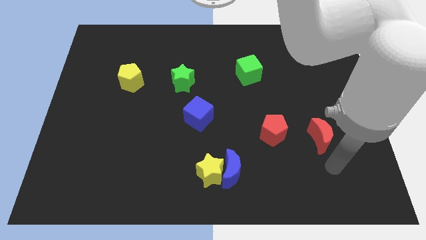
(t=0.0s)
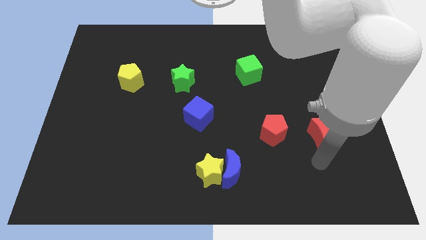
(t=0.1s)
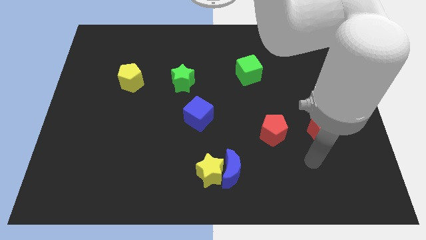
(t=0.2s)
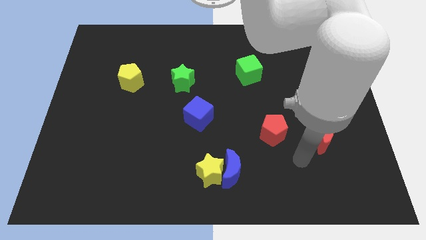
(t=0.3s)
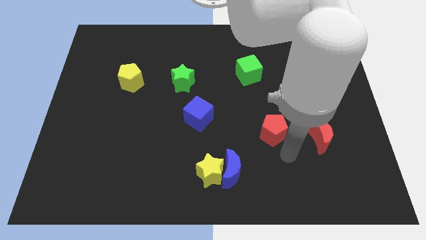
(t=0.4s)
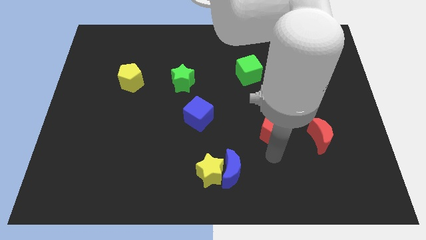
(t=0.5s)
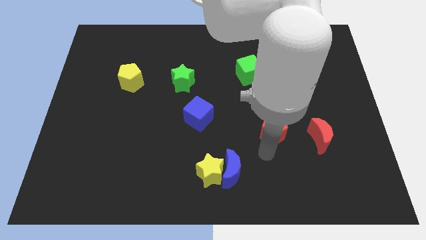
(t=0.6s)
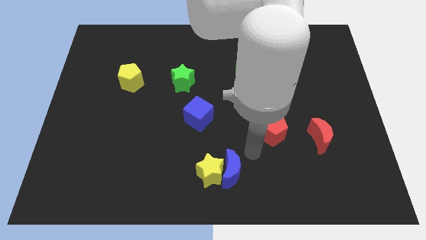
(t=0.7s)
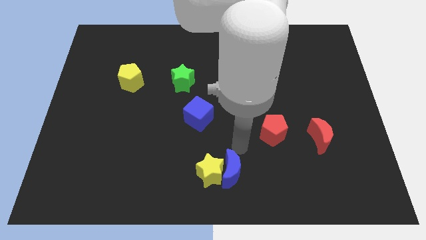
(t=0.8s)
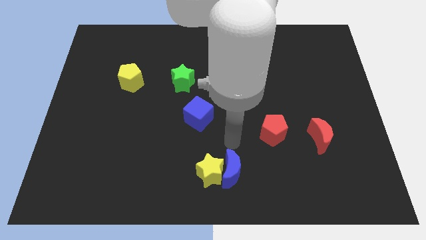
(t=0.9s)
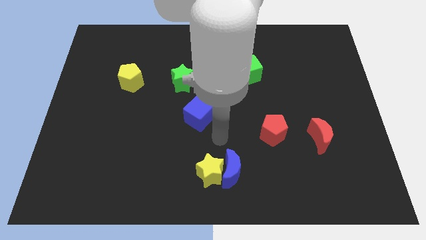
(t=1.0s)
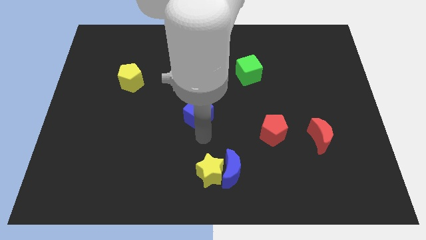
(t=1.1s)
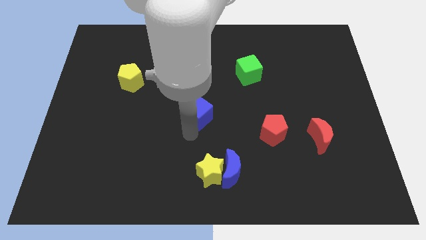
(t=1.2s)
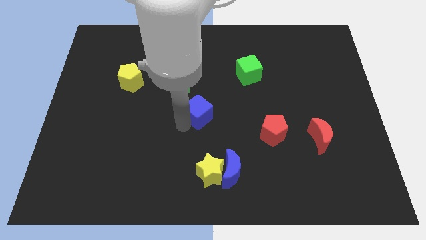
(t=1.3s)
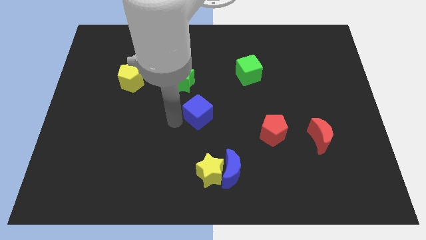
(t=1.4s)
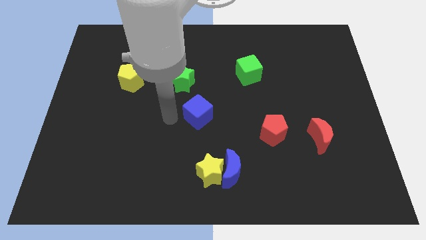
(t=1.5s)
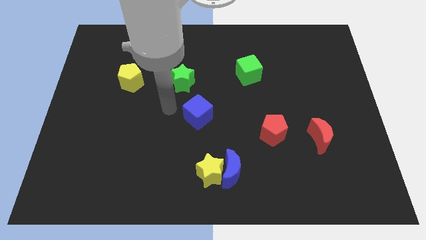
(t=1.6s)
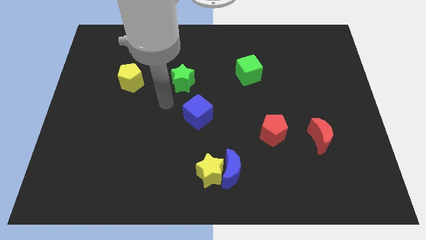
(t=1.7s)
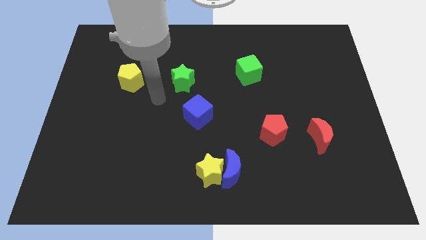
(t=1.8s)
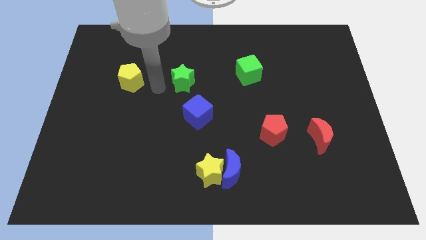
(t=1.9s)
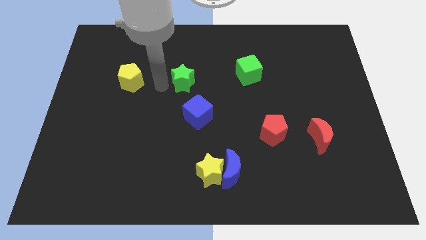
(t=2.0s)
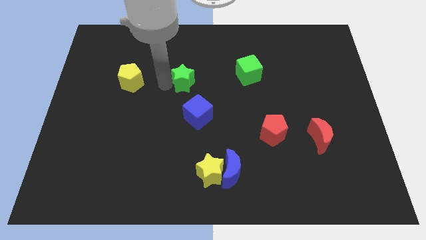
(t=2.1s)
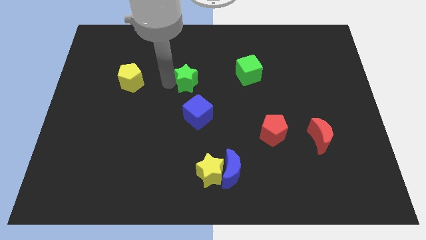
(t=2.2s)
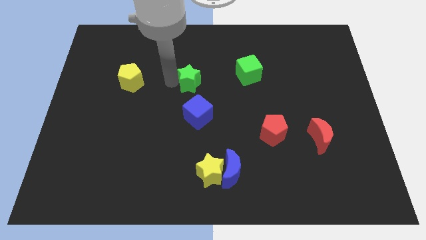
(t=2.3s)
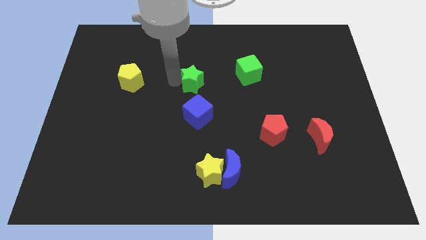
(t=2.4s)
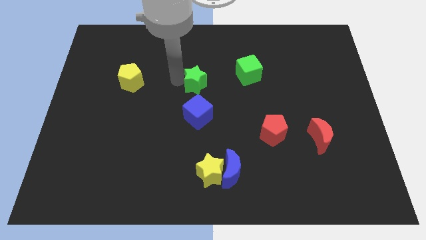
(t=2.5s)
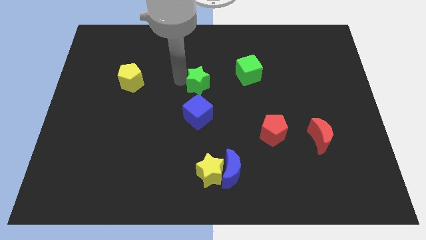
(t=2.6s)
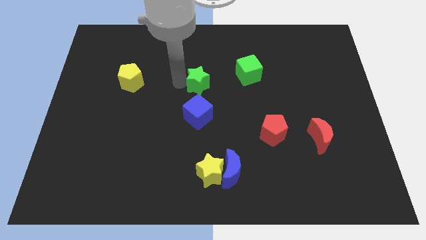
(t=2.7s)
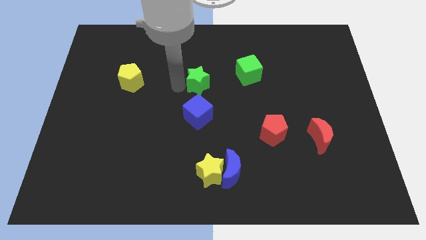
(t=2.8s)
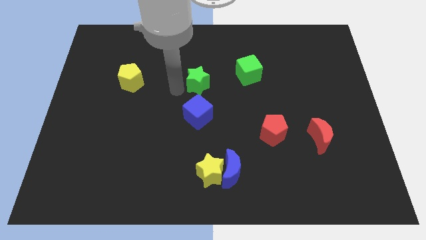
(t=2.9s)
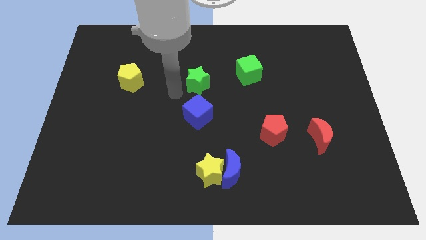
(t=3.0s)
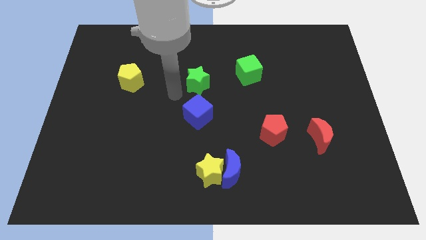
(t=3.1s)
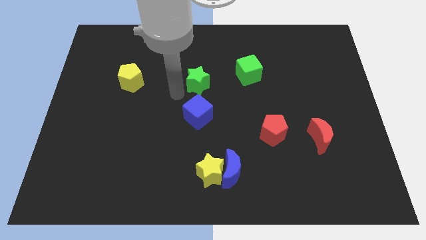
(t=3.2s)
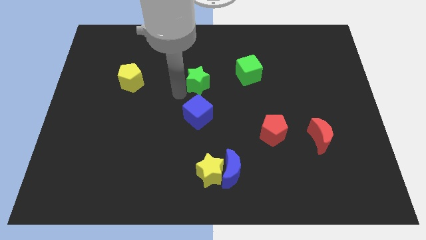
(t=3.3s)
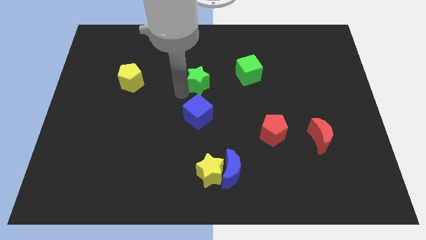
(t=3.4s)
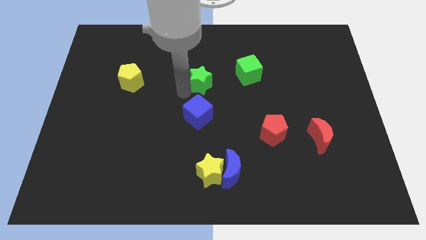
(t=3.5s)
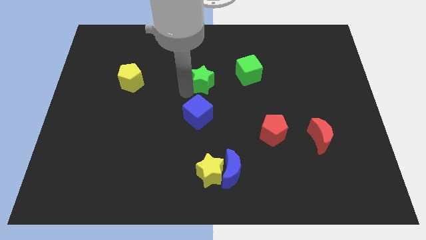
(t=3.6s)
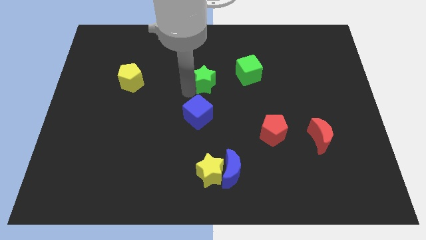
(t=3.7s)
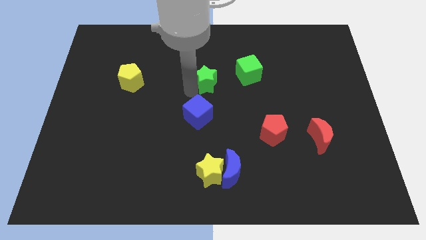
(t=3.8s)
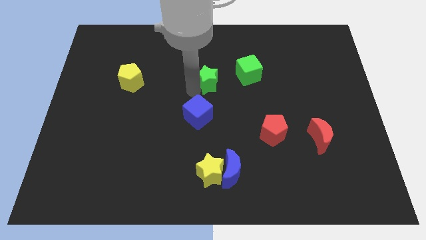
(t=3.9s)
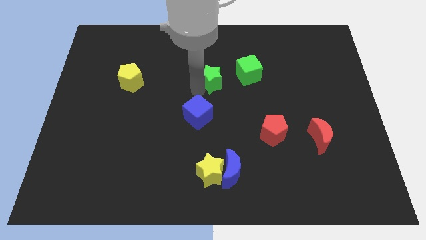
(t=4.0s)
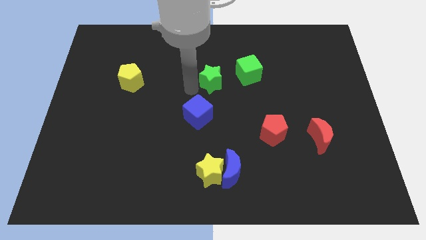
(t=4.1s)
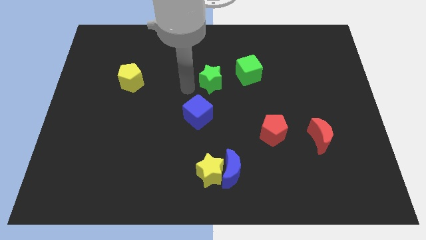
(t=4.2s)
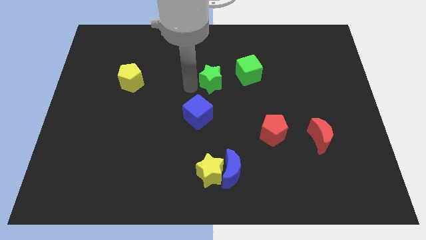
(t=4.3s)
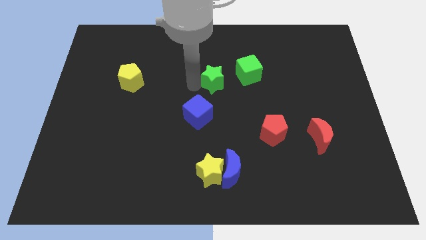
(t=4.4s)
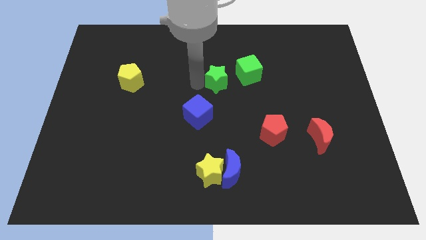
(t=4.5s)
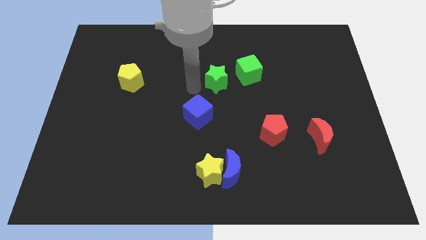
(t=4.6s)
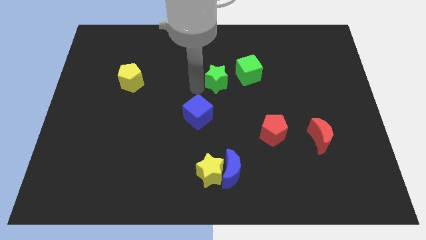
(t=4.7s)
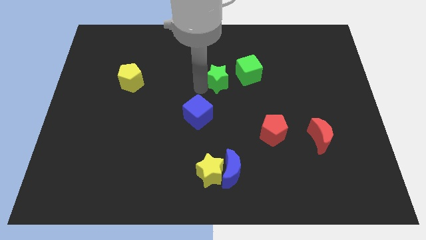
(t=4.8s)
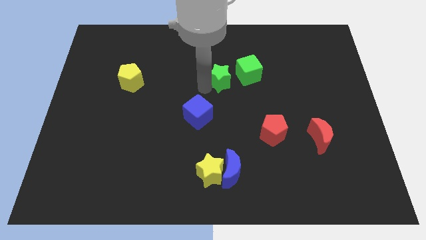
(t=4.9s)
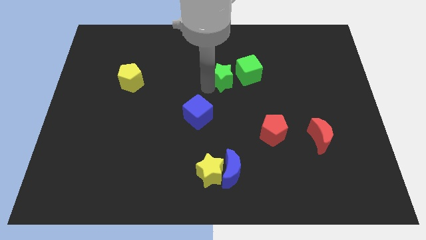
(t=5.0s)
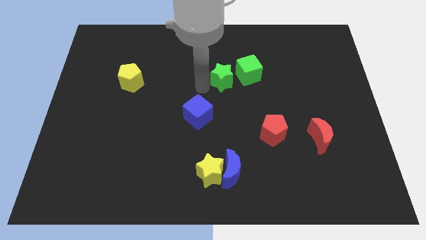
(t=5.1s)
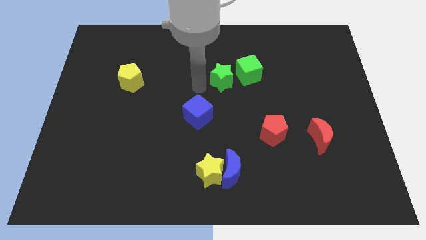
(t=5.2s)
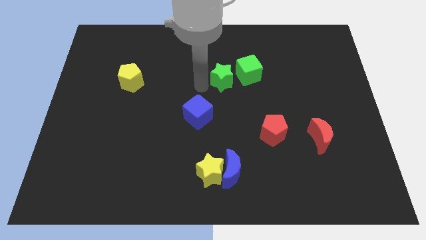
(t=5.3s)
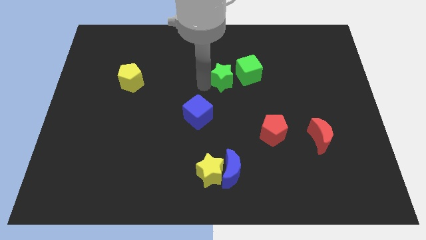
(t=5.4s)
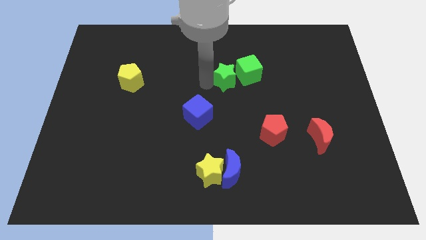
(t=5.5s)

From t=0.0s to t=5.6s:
move the green star next to the green cube

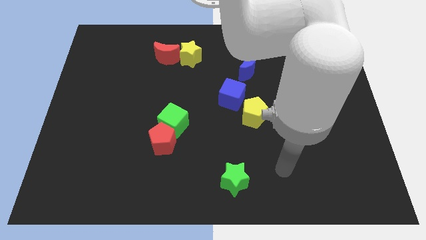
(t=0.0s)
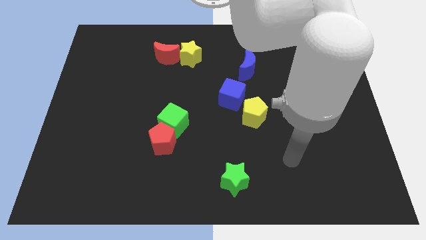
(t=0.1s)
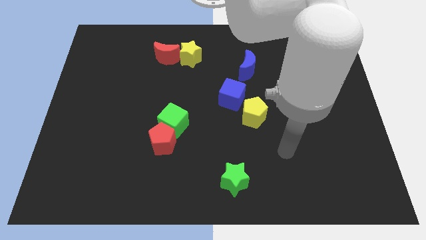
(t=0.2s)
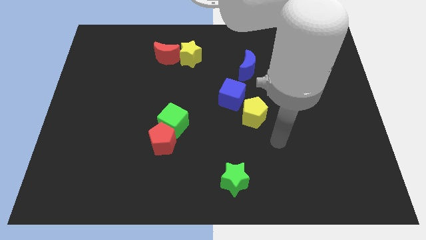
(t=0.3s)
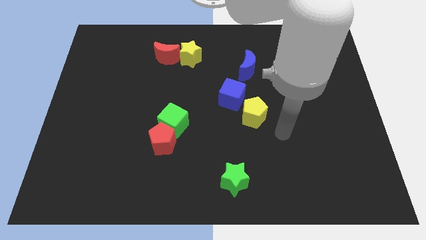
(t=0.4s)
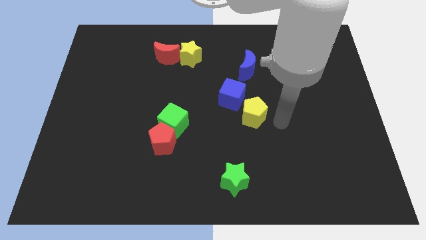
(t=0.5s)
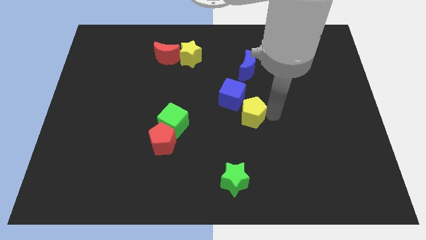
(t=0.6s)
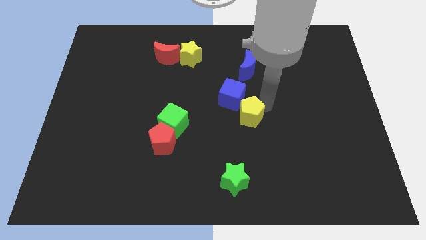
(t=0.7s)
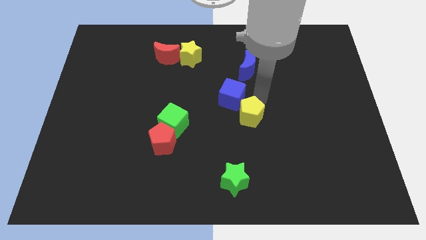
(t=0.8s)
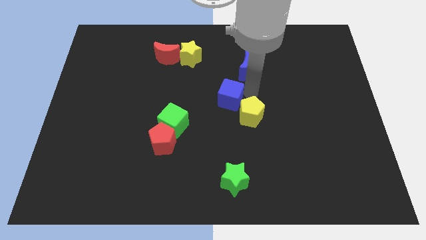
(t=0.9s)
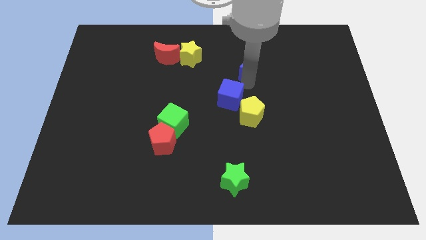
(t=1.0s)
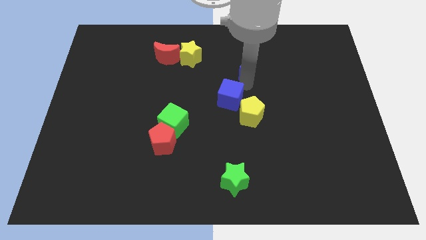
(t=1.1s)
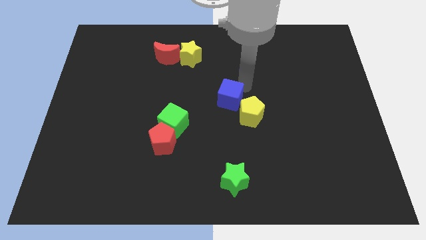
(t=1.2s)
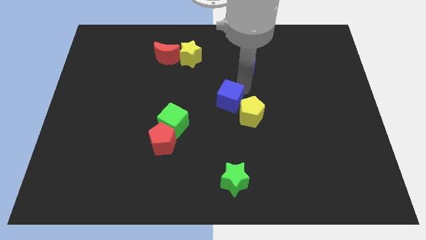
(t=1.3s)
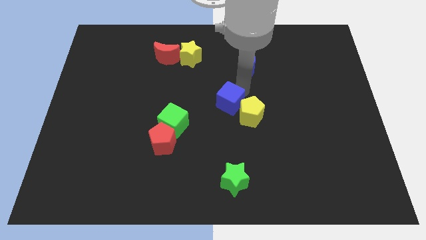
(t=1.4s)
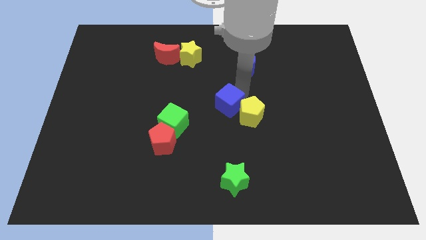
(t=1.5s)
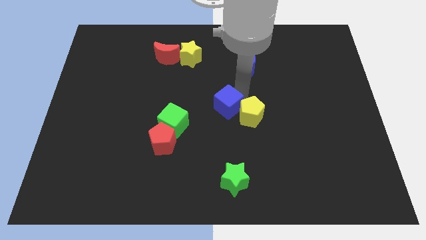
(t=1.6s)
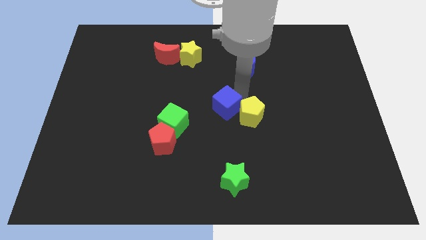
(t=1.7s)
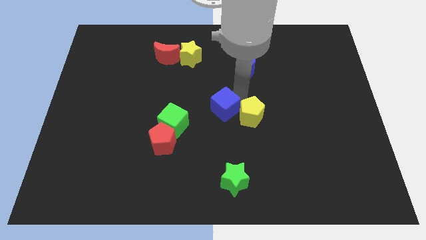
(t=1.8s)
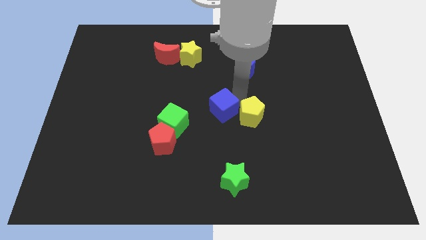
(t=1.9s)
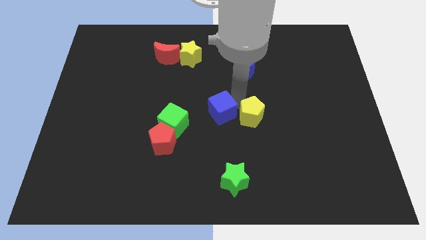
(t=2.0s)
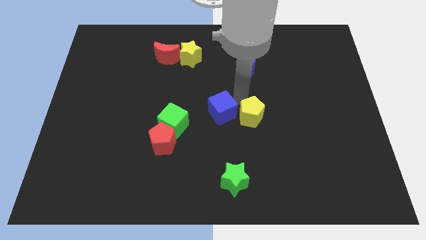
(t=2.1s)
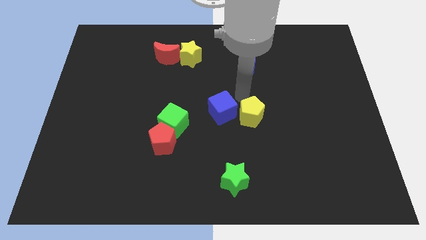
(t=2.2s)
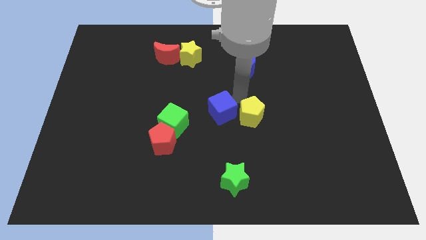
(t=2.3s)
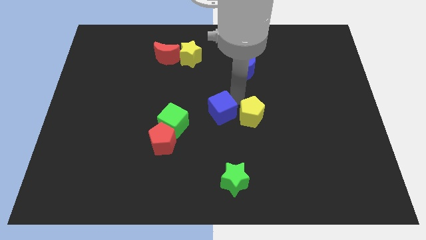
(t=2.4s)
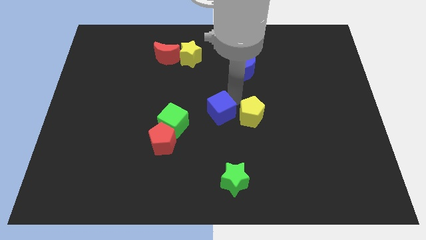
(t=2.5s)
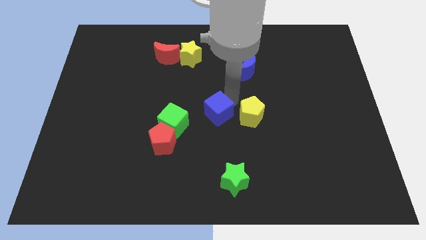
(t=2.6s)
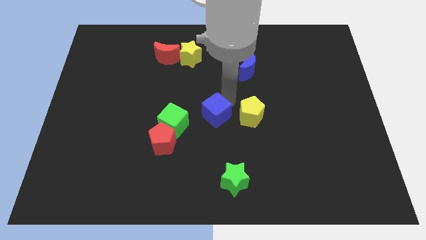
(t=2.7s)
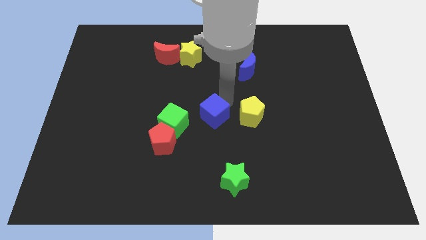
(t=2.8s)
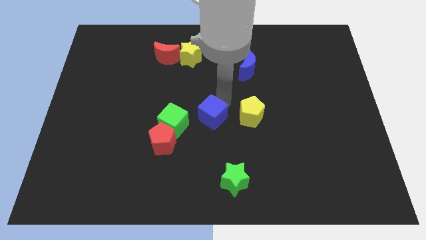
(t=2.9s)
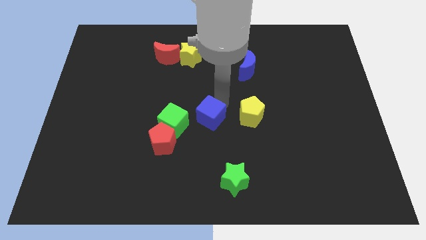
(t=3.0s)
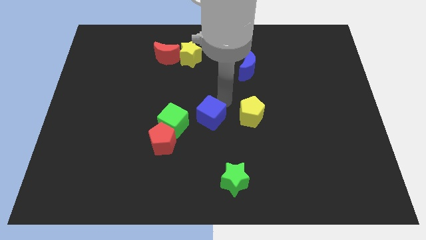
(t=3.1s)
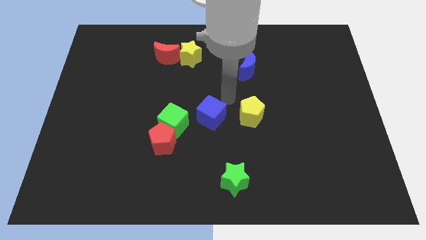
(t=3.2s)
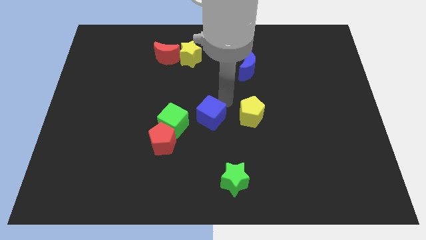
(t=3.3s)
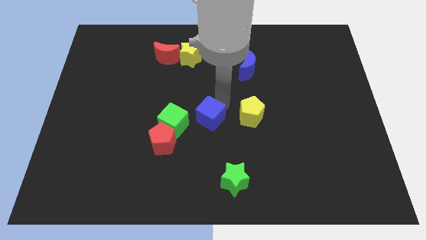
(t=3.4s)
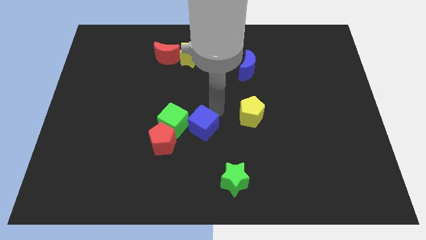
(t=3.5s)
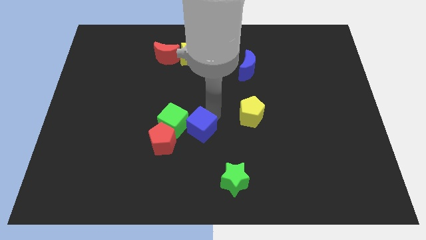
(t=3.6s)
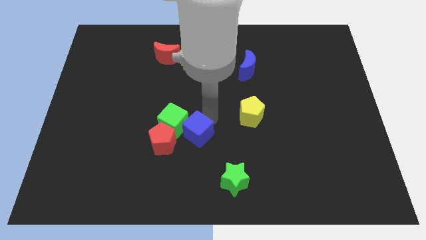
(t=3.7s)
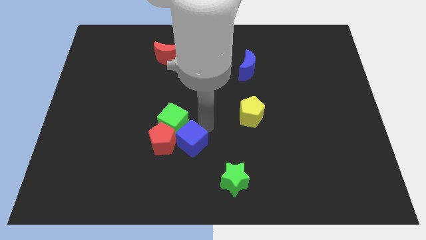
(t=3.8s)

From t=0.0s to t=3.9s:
move the blue cube next to the red pentagon
